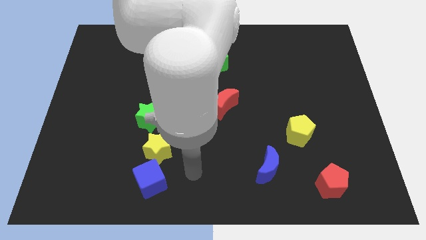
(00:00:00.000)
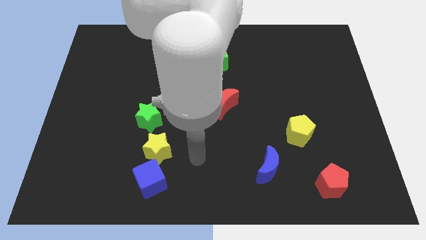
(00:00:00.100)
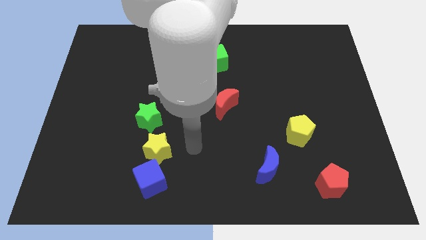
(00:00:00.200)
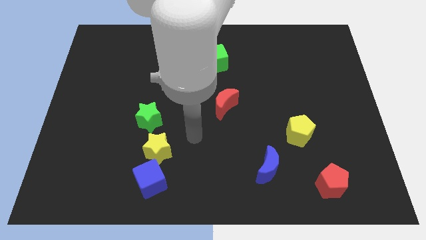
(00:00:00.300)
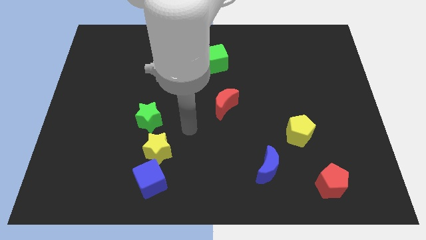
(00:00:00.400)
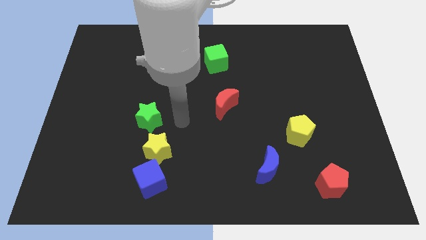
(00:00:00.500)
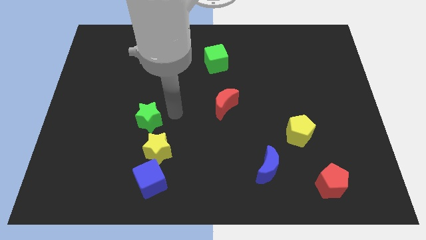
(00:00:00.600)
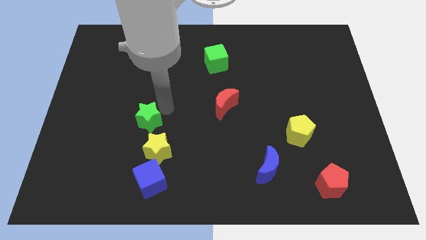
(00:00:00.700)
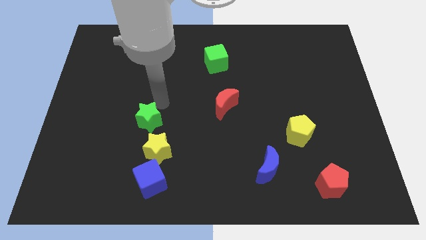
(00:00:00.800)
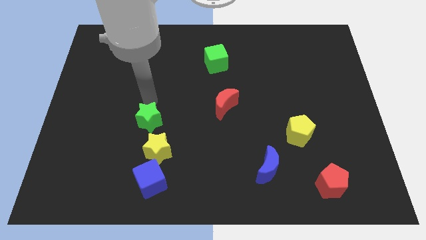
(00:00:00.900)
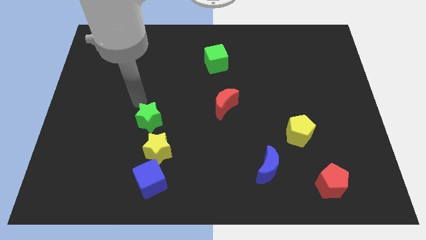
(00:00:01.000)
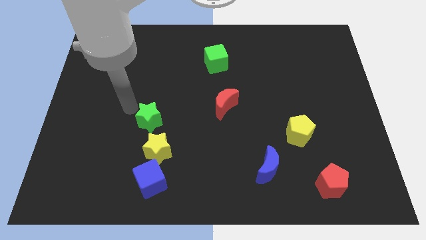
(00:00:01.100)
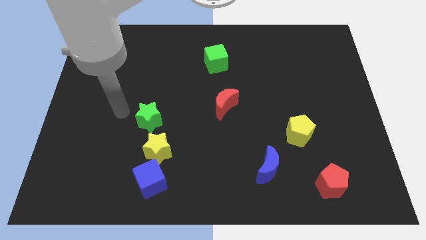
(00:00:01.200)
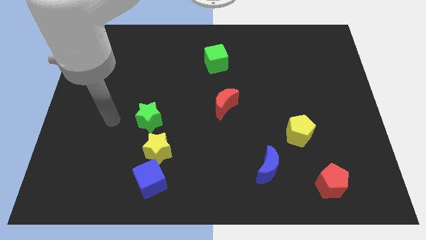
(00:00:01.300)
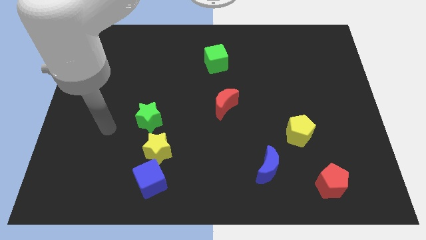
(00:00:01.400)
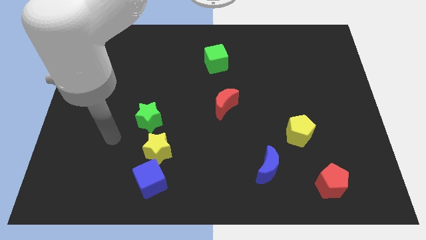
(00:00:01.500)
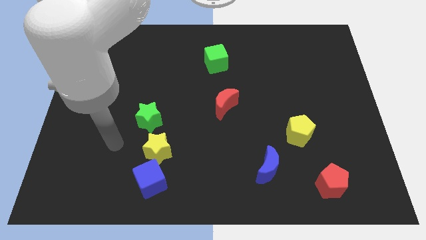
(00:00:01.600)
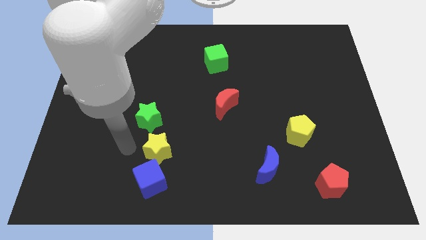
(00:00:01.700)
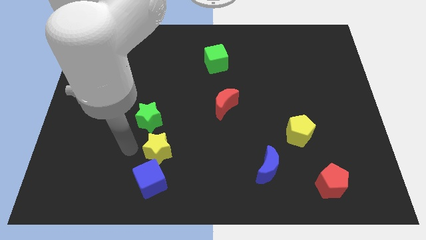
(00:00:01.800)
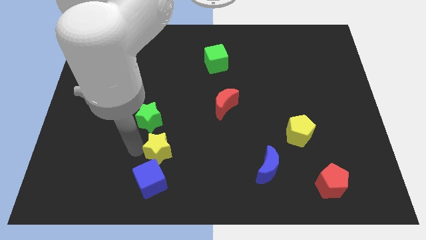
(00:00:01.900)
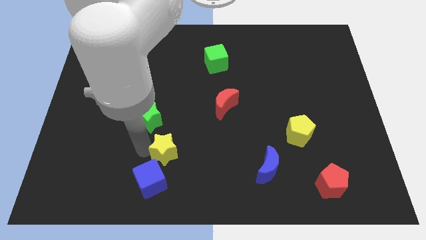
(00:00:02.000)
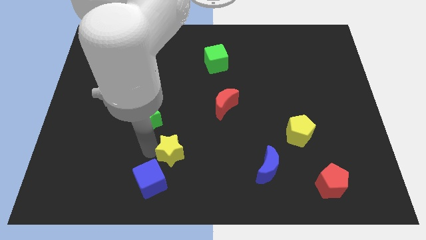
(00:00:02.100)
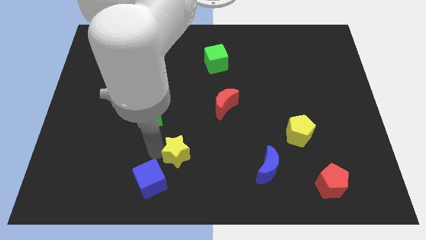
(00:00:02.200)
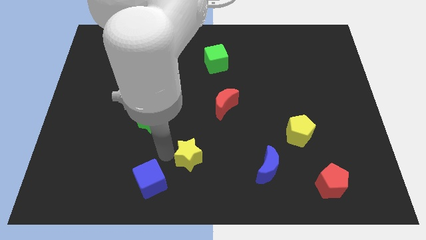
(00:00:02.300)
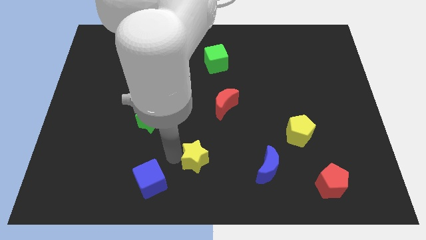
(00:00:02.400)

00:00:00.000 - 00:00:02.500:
slightly push the yellow star right

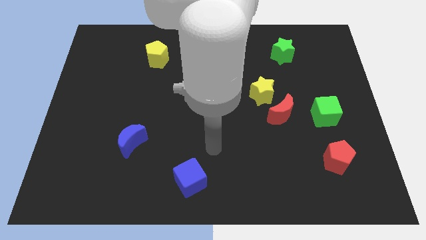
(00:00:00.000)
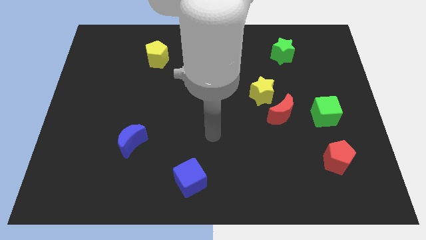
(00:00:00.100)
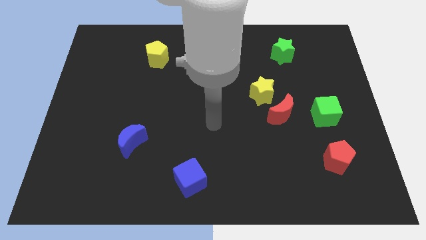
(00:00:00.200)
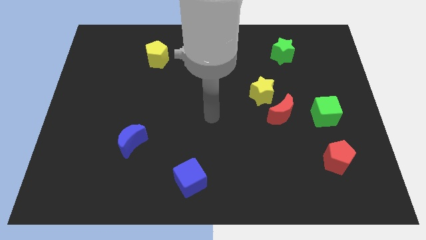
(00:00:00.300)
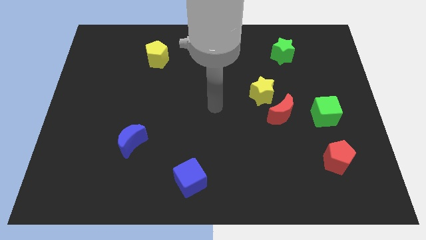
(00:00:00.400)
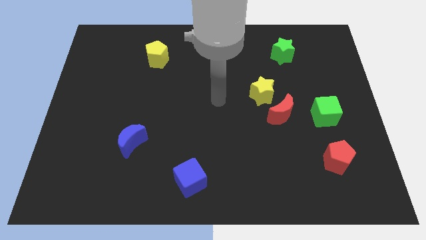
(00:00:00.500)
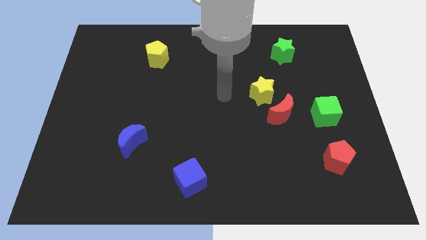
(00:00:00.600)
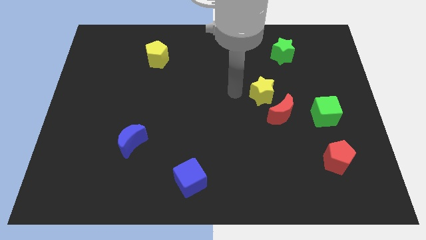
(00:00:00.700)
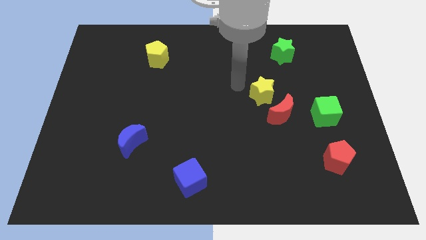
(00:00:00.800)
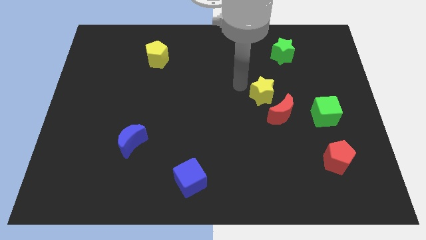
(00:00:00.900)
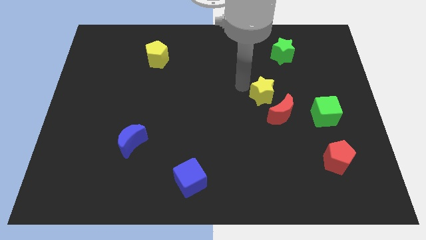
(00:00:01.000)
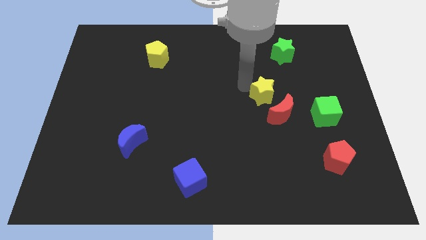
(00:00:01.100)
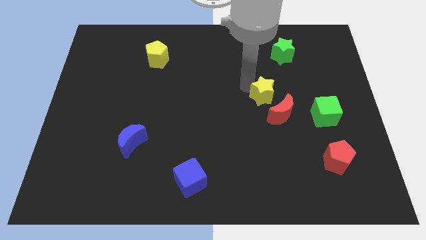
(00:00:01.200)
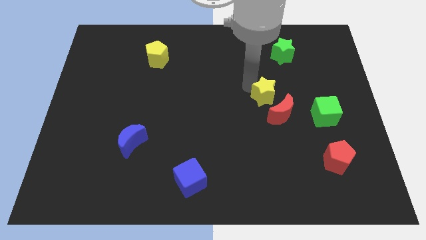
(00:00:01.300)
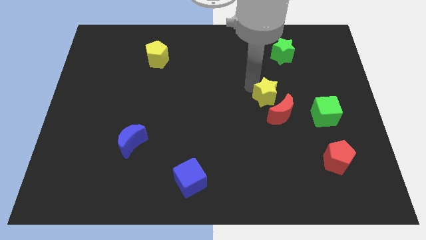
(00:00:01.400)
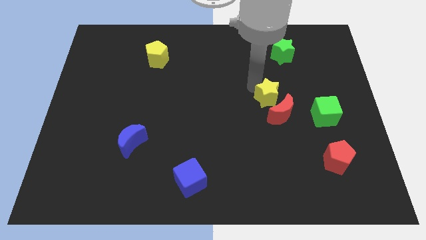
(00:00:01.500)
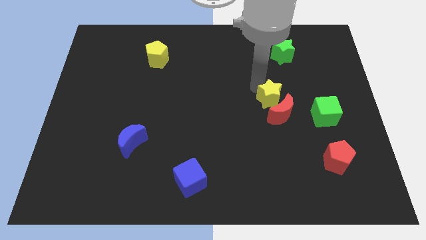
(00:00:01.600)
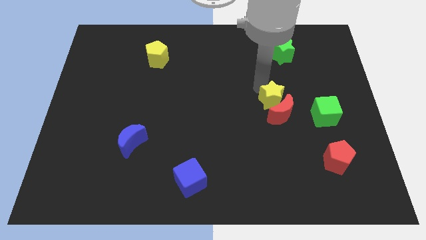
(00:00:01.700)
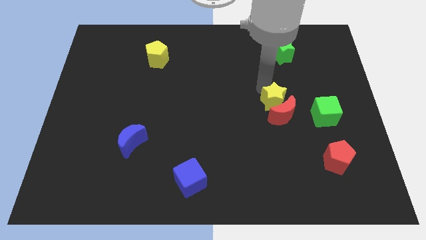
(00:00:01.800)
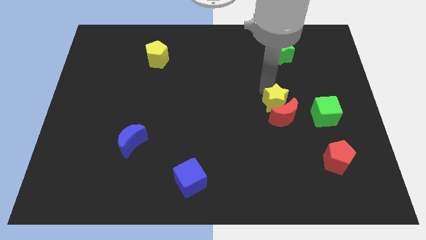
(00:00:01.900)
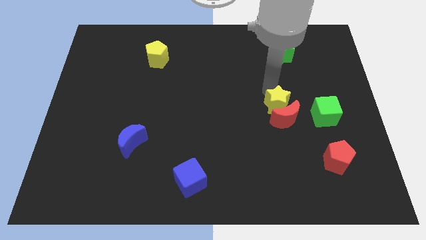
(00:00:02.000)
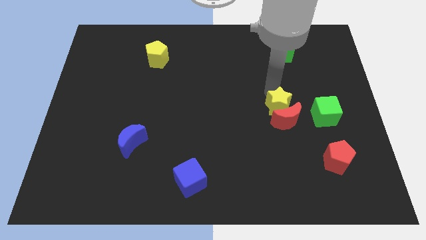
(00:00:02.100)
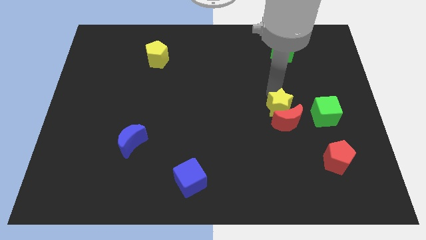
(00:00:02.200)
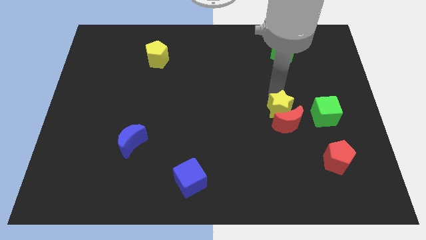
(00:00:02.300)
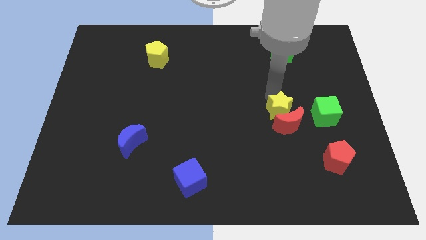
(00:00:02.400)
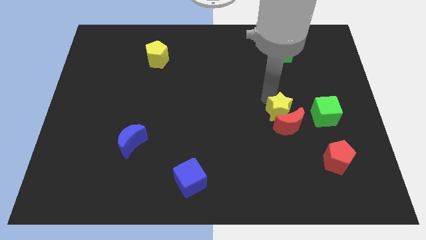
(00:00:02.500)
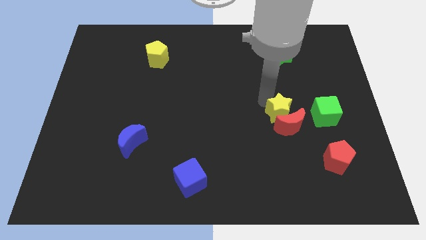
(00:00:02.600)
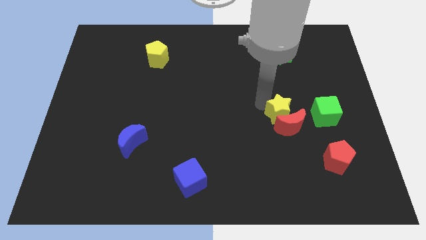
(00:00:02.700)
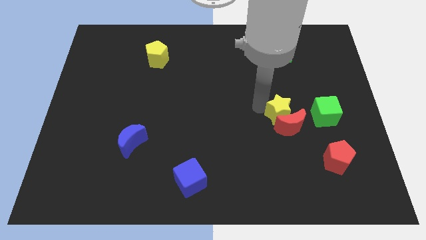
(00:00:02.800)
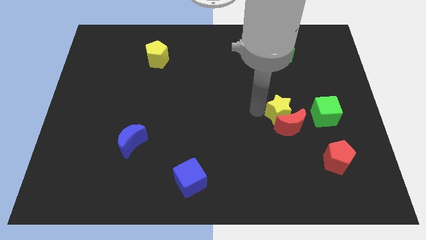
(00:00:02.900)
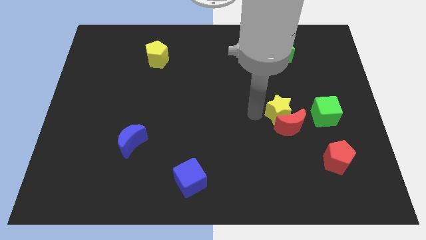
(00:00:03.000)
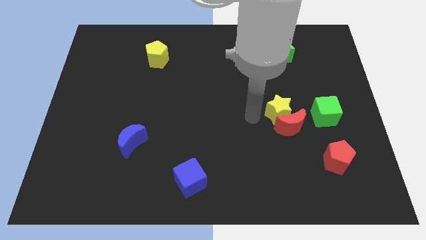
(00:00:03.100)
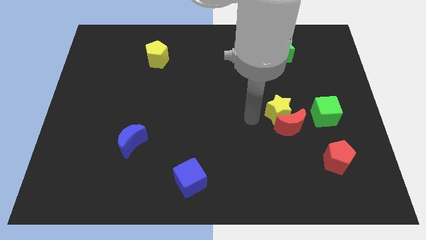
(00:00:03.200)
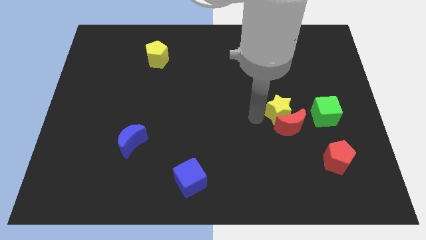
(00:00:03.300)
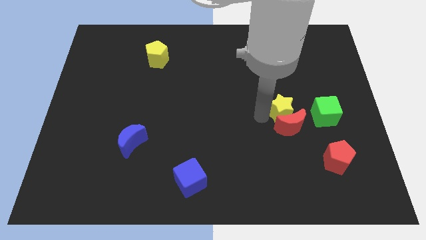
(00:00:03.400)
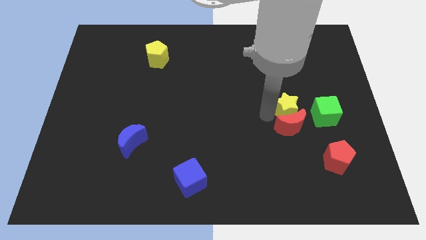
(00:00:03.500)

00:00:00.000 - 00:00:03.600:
push the yellow star a bit down and then right

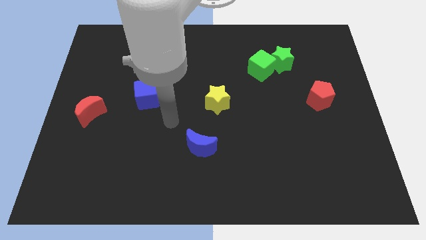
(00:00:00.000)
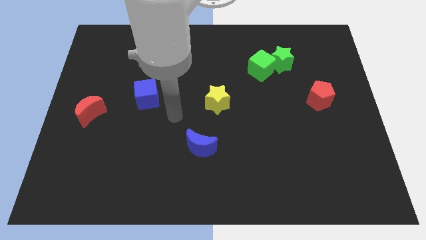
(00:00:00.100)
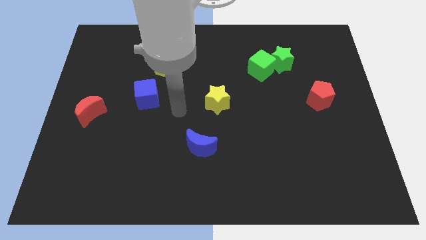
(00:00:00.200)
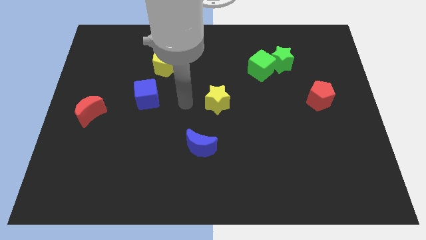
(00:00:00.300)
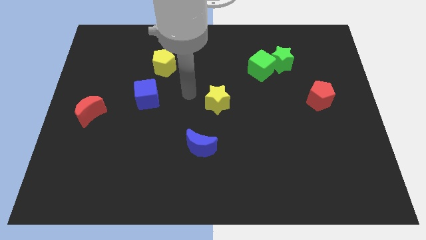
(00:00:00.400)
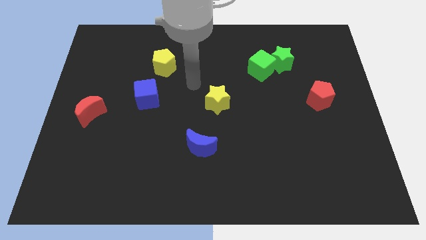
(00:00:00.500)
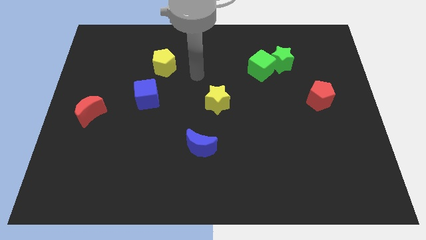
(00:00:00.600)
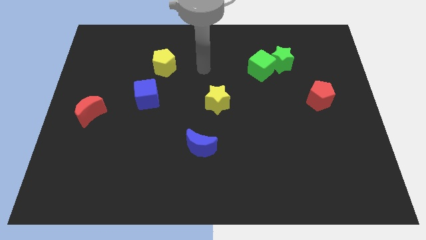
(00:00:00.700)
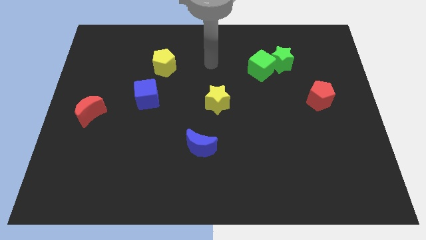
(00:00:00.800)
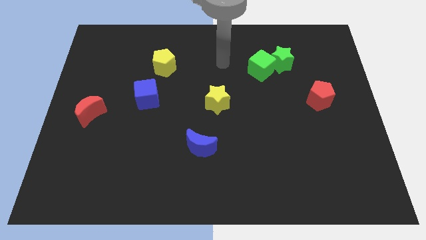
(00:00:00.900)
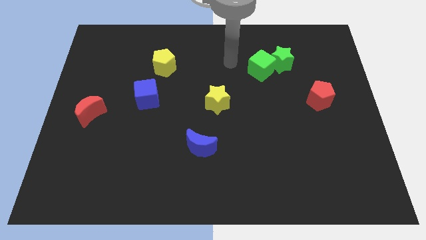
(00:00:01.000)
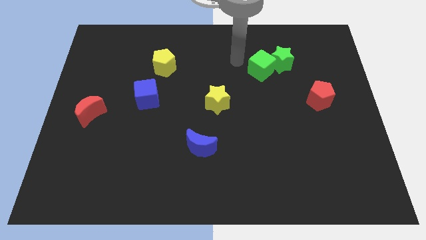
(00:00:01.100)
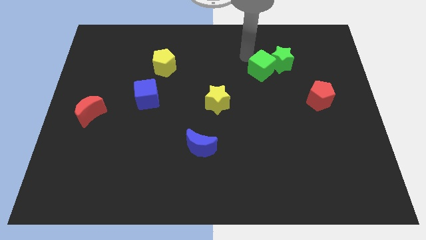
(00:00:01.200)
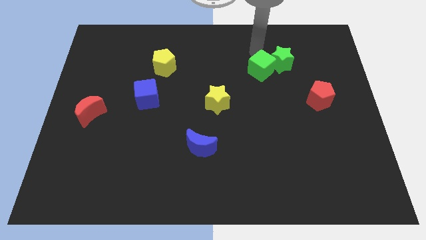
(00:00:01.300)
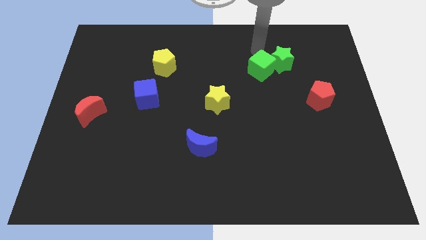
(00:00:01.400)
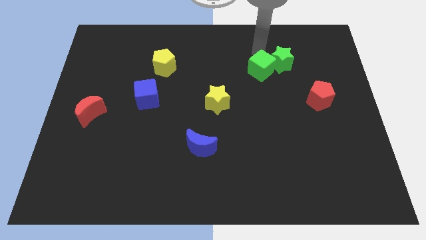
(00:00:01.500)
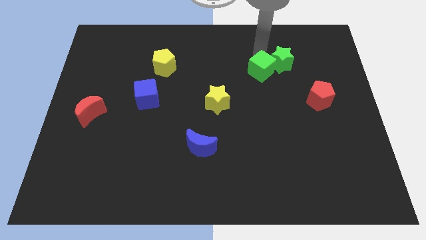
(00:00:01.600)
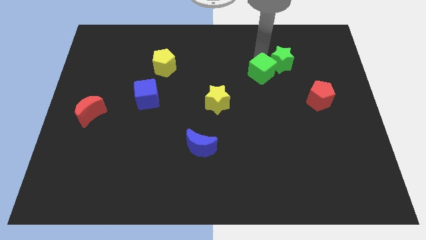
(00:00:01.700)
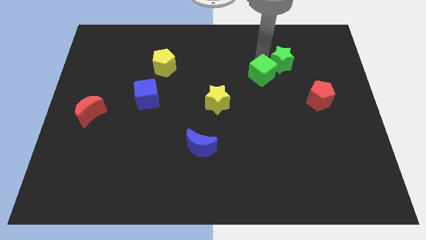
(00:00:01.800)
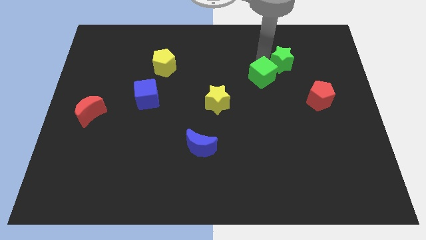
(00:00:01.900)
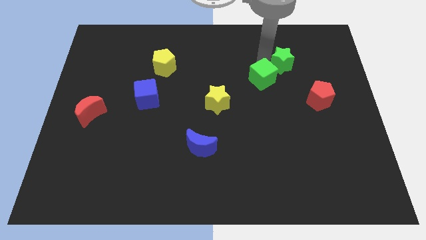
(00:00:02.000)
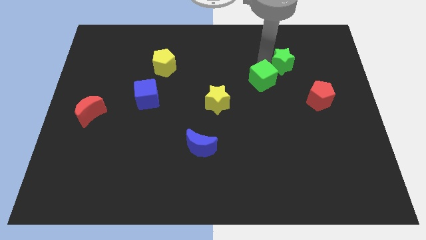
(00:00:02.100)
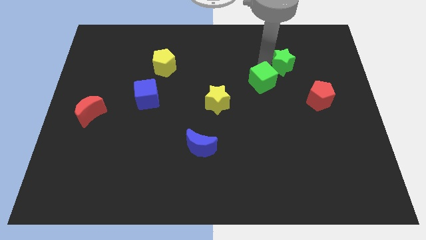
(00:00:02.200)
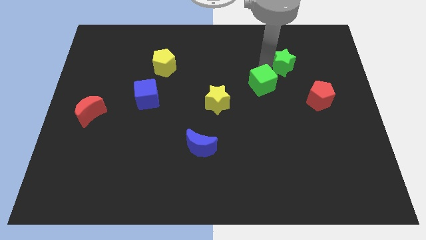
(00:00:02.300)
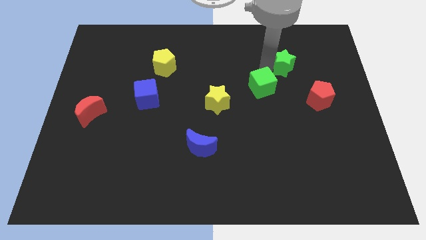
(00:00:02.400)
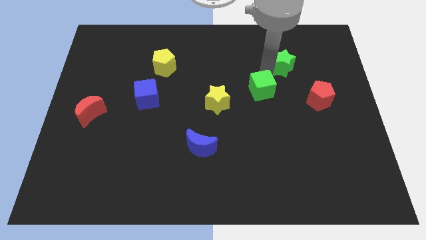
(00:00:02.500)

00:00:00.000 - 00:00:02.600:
slightly push the green cube downwards
